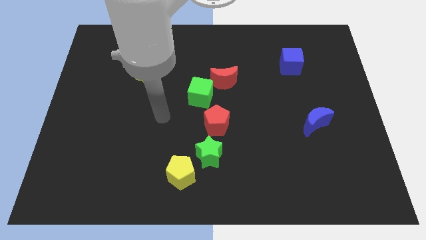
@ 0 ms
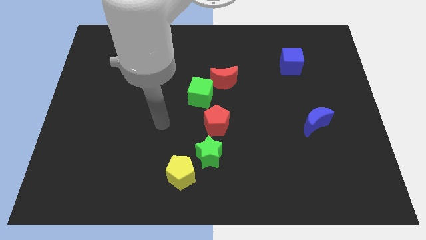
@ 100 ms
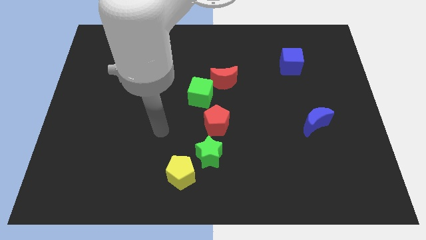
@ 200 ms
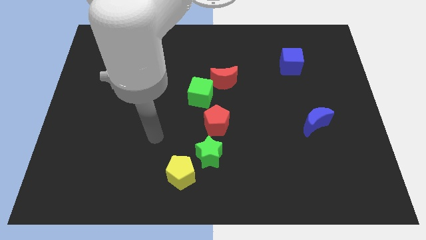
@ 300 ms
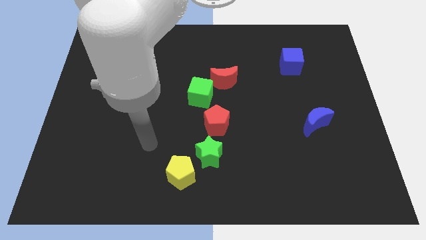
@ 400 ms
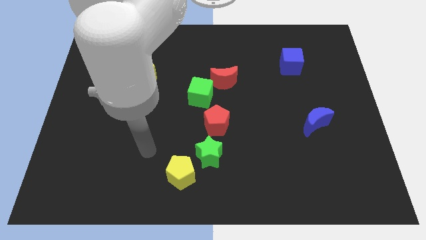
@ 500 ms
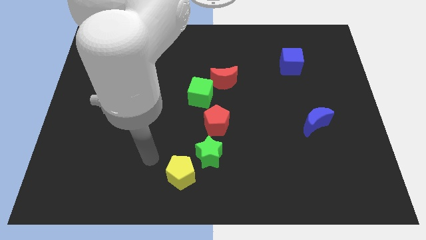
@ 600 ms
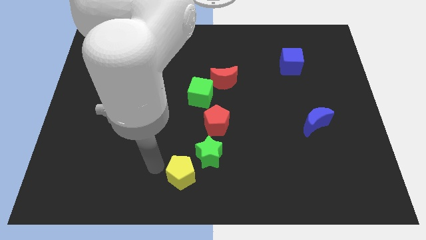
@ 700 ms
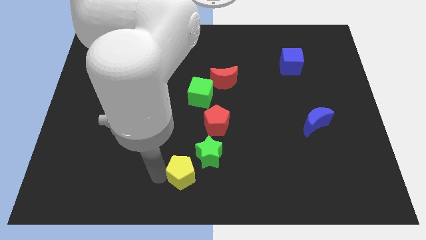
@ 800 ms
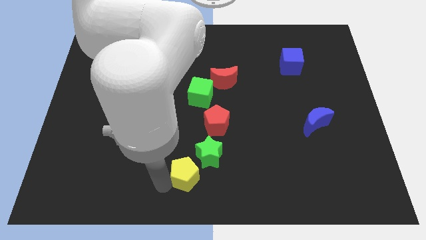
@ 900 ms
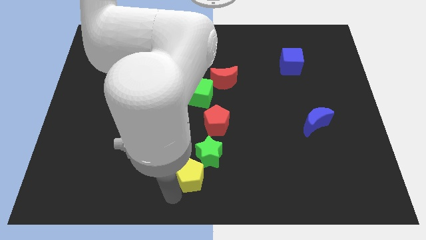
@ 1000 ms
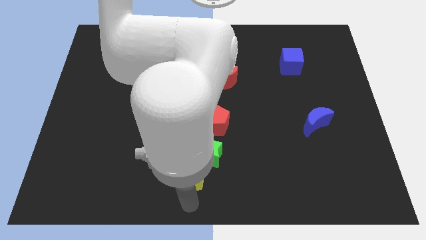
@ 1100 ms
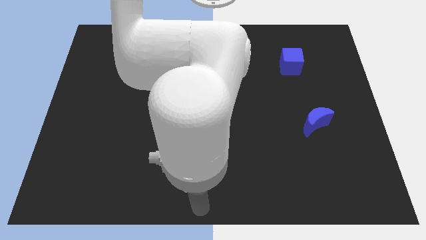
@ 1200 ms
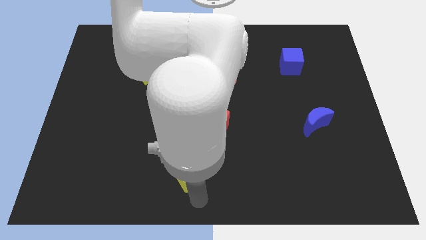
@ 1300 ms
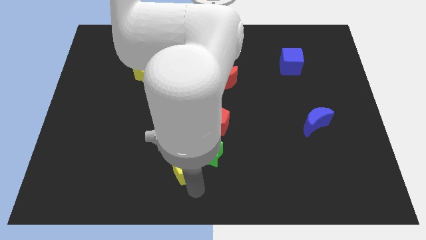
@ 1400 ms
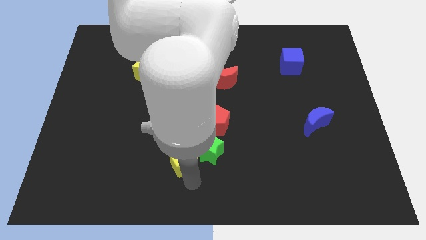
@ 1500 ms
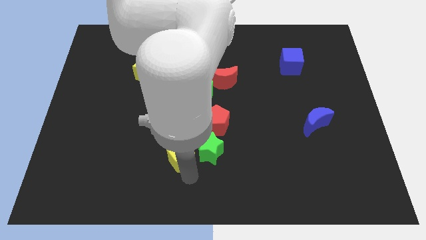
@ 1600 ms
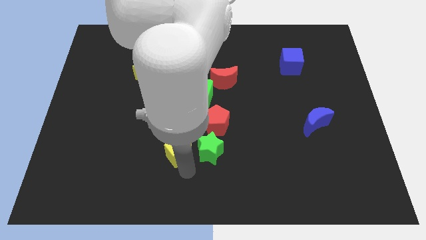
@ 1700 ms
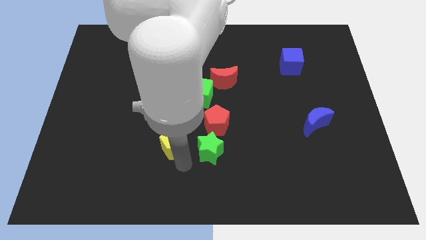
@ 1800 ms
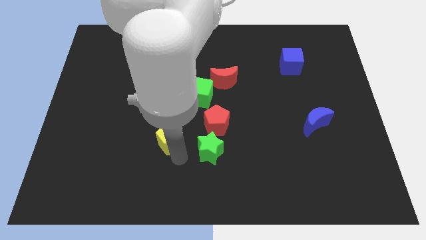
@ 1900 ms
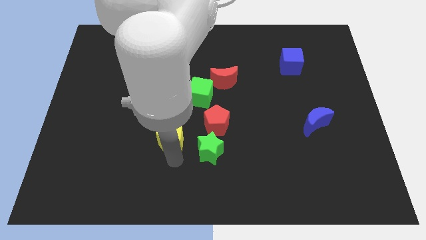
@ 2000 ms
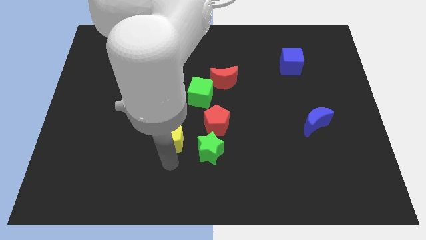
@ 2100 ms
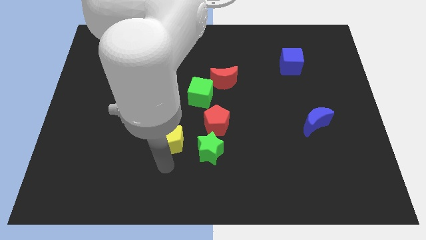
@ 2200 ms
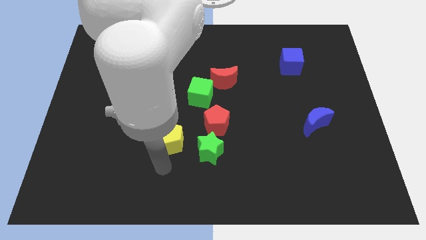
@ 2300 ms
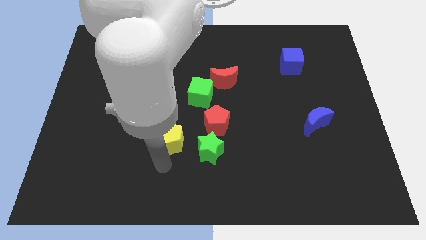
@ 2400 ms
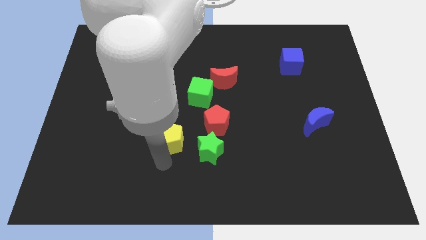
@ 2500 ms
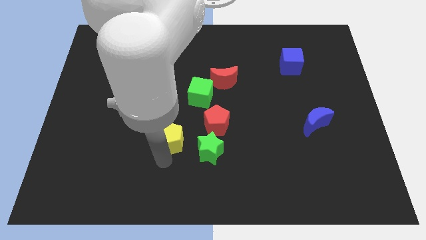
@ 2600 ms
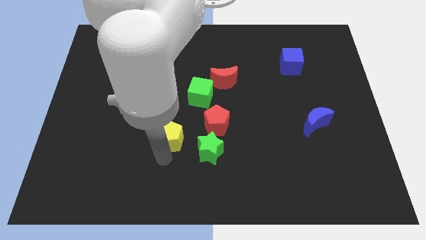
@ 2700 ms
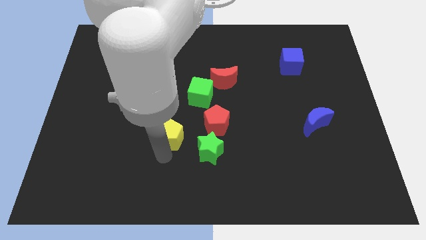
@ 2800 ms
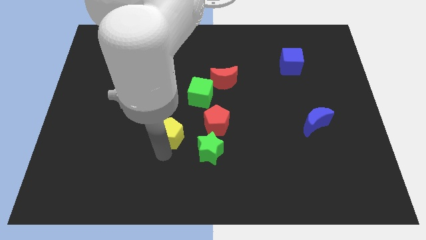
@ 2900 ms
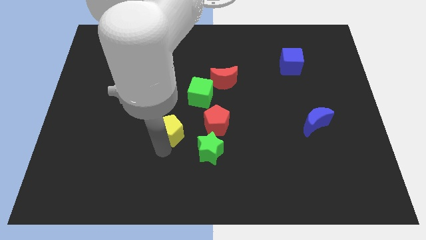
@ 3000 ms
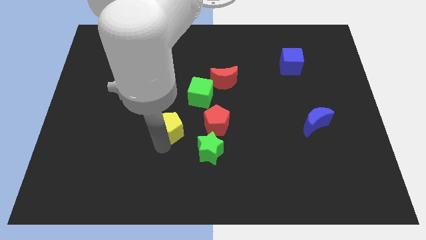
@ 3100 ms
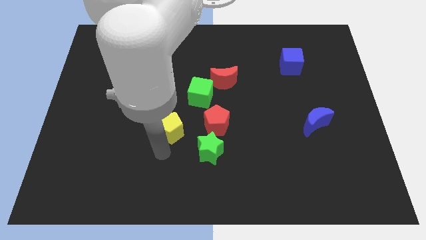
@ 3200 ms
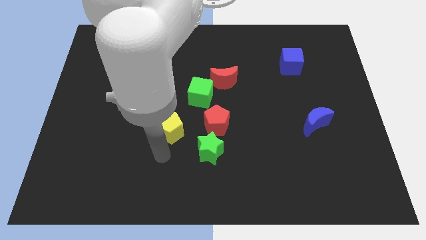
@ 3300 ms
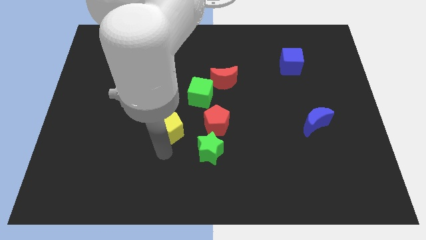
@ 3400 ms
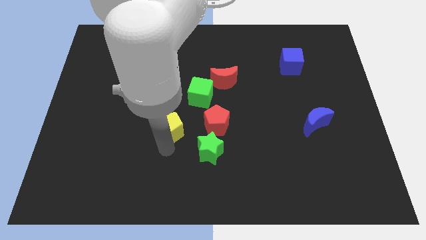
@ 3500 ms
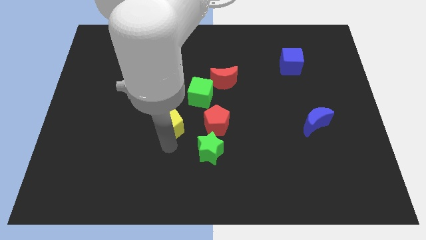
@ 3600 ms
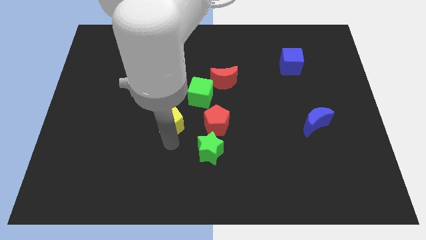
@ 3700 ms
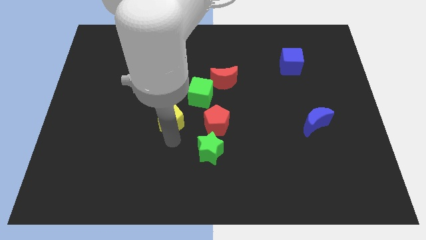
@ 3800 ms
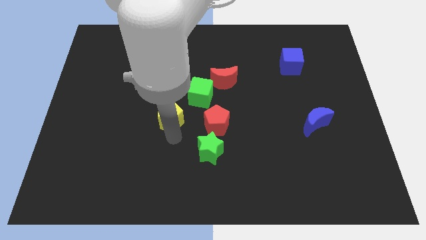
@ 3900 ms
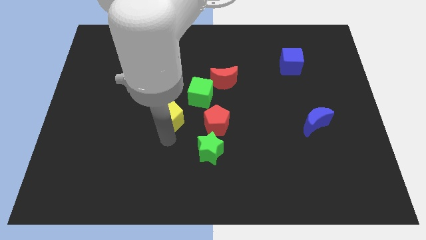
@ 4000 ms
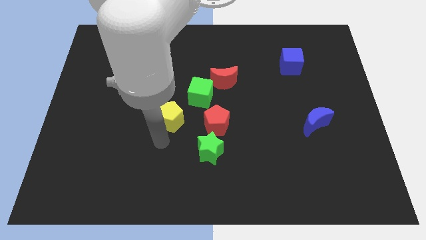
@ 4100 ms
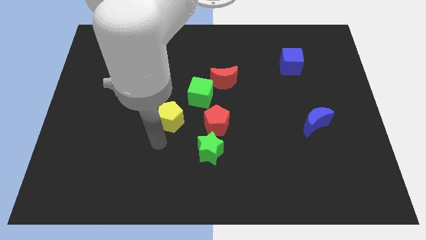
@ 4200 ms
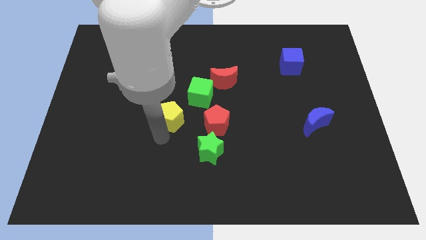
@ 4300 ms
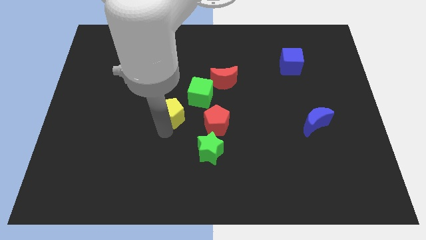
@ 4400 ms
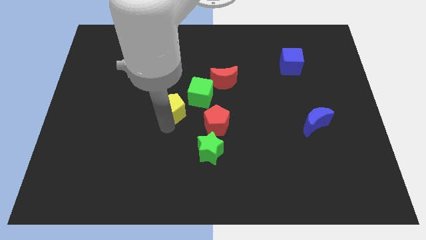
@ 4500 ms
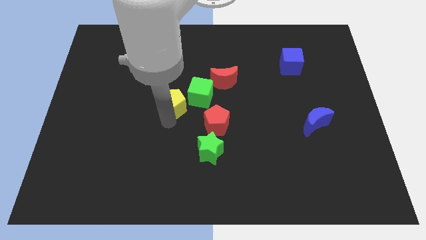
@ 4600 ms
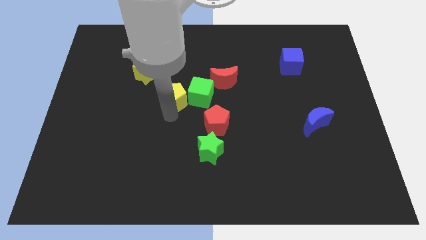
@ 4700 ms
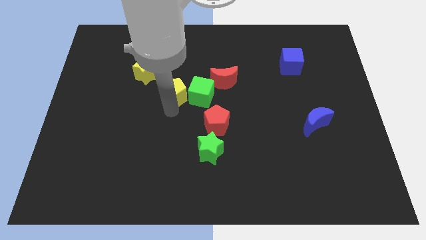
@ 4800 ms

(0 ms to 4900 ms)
slide the yellow pentagon upwards

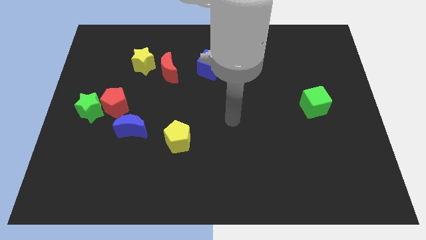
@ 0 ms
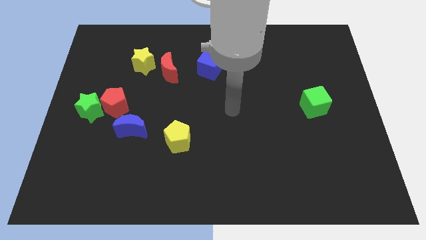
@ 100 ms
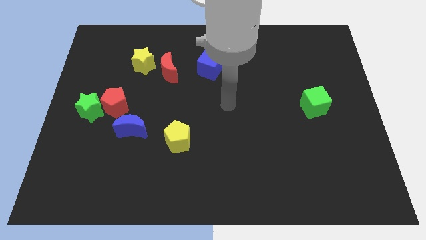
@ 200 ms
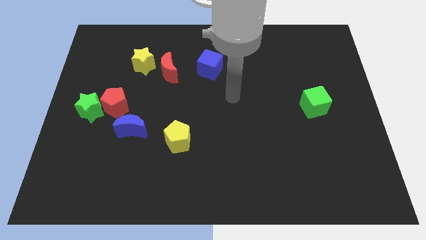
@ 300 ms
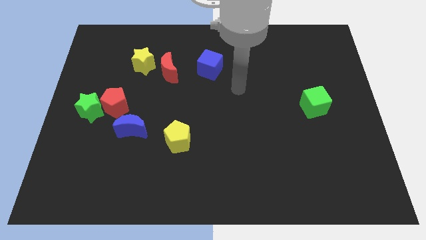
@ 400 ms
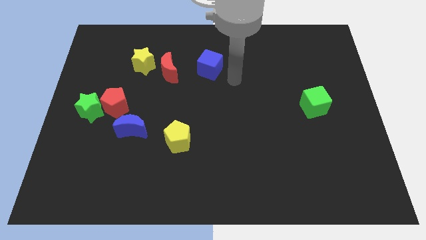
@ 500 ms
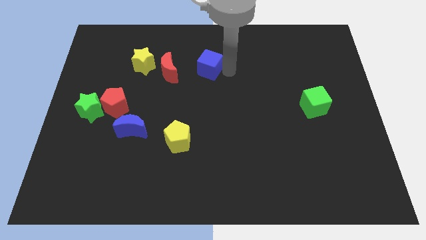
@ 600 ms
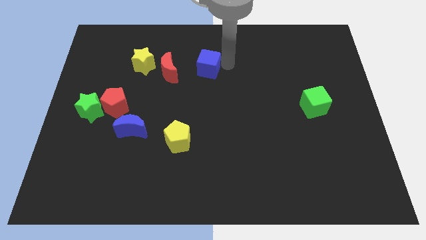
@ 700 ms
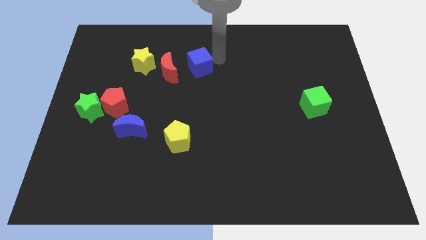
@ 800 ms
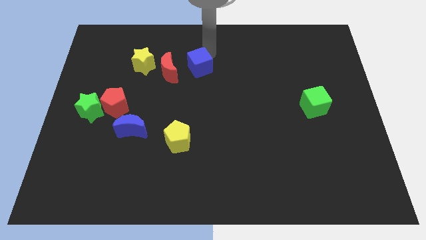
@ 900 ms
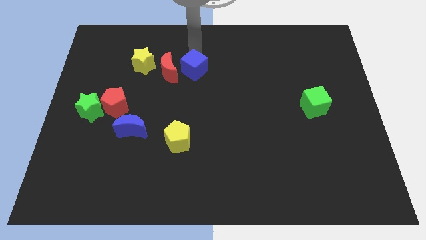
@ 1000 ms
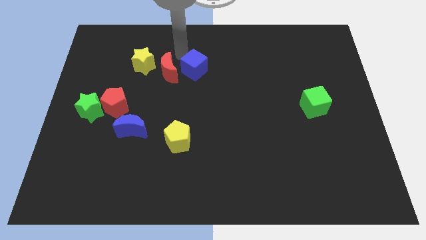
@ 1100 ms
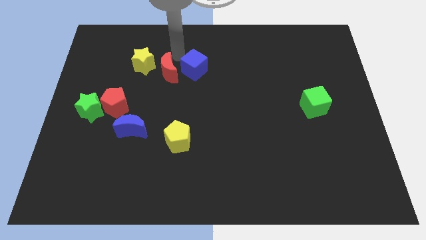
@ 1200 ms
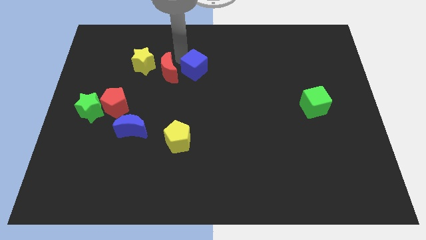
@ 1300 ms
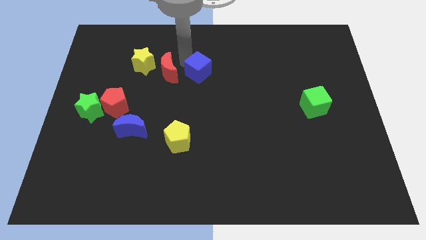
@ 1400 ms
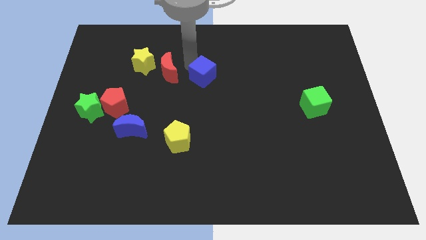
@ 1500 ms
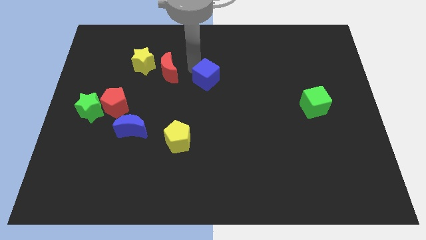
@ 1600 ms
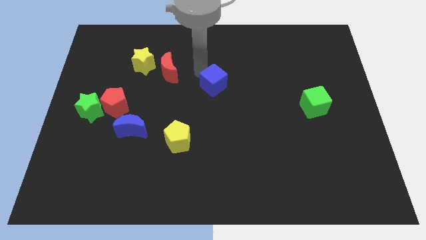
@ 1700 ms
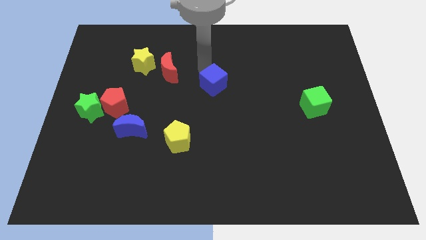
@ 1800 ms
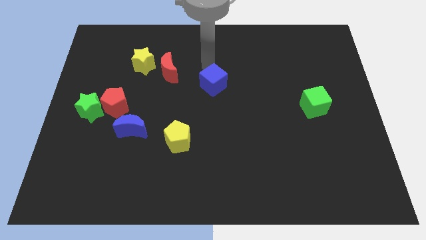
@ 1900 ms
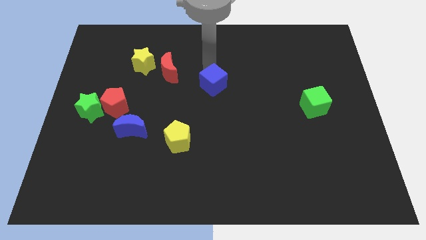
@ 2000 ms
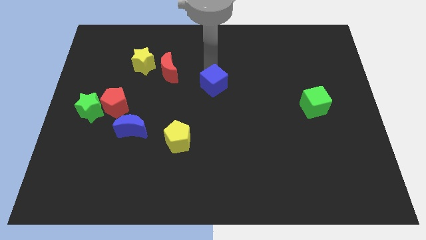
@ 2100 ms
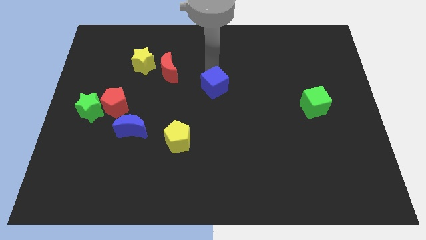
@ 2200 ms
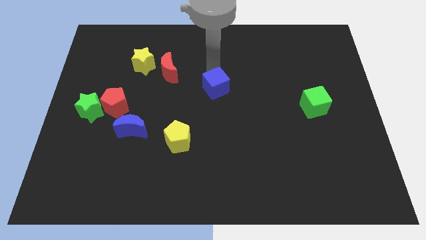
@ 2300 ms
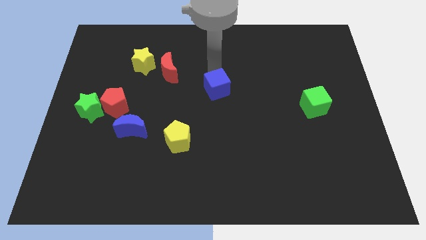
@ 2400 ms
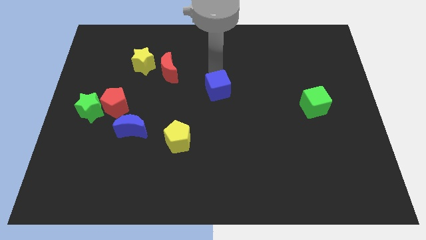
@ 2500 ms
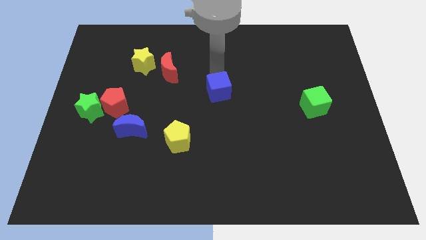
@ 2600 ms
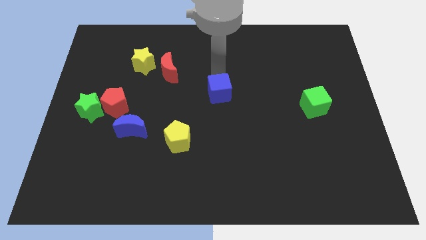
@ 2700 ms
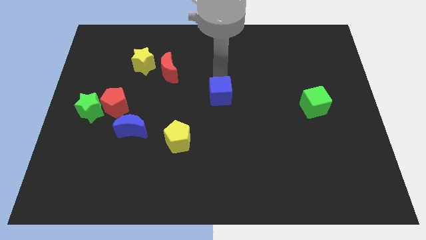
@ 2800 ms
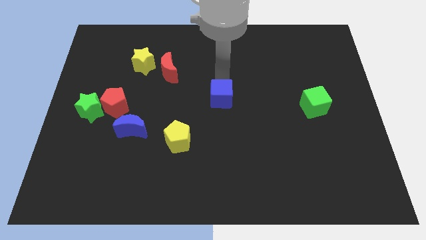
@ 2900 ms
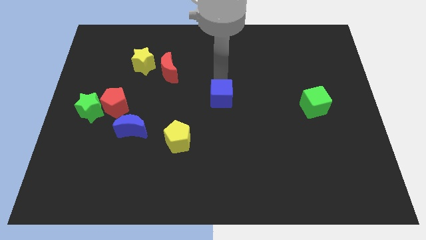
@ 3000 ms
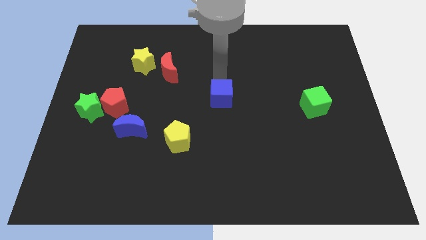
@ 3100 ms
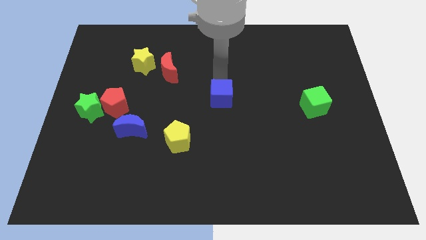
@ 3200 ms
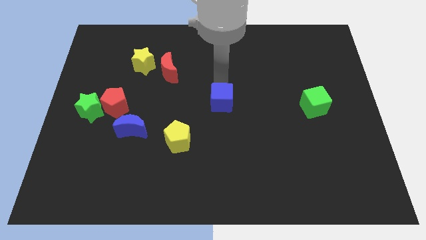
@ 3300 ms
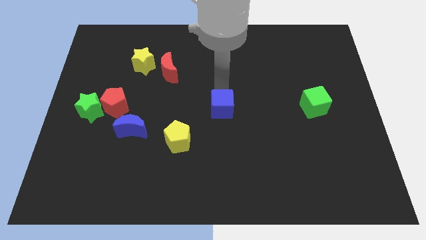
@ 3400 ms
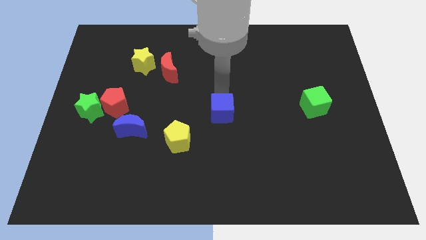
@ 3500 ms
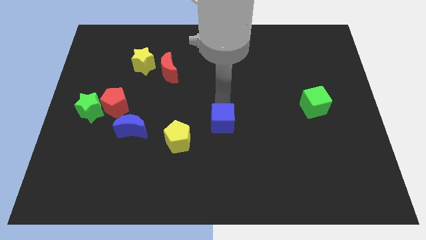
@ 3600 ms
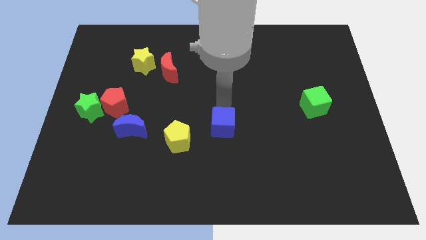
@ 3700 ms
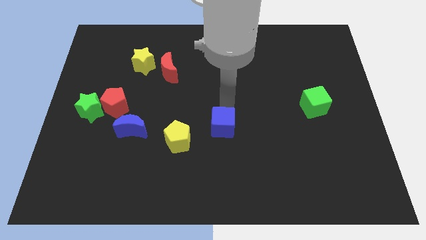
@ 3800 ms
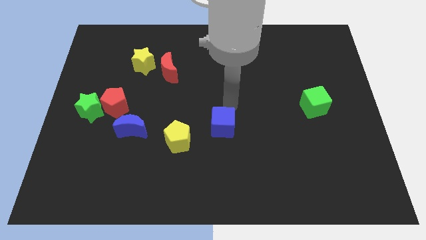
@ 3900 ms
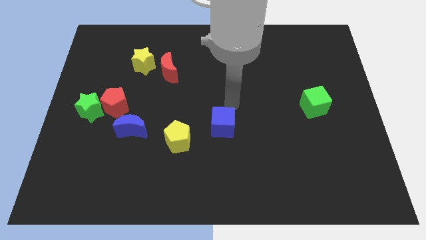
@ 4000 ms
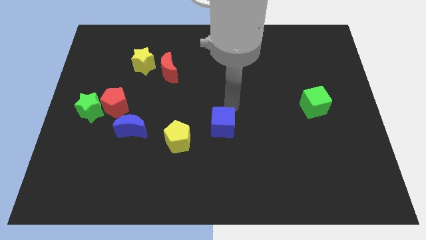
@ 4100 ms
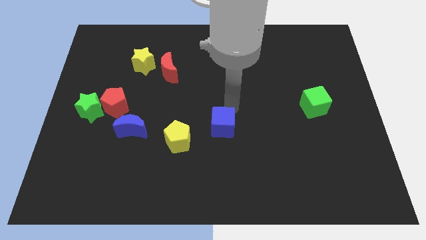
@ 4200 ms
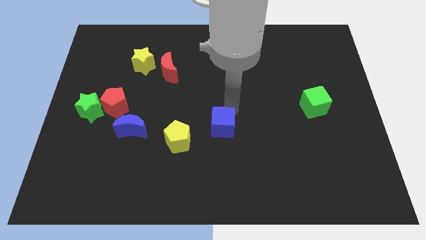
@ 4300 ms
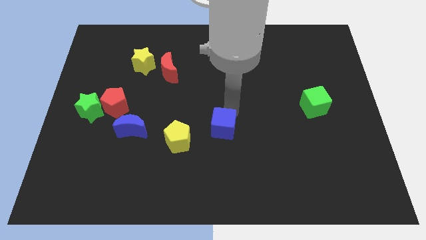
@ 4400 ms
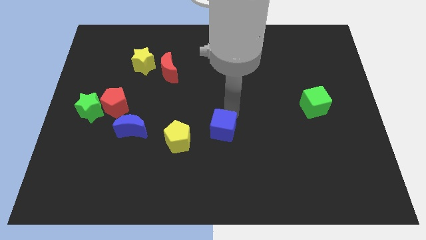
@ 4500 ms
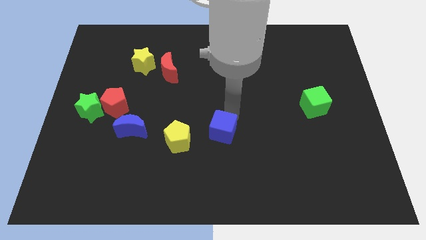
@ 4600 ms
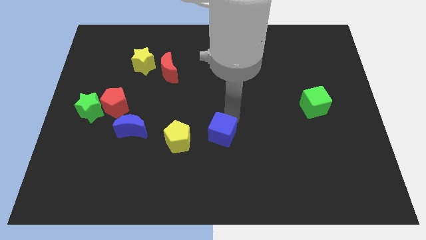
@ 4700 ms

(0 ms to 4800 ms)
slide the blue cube downwards
